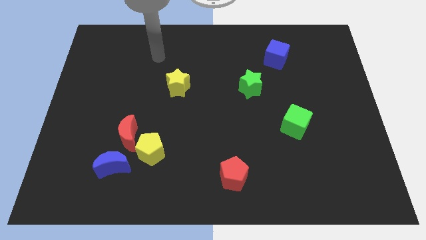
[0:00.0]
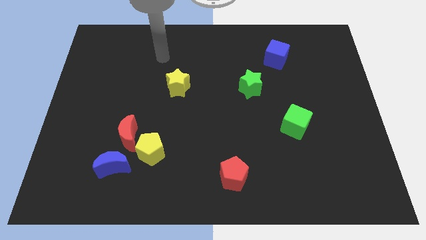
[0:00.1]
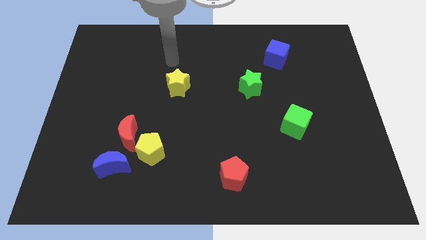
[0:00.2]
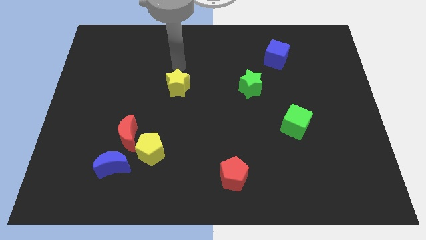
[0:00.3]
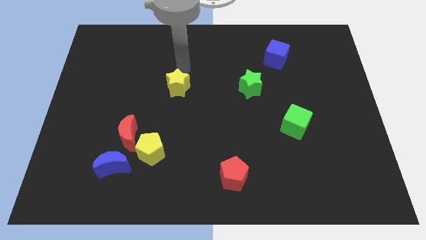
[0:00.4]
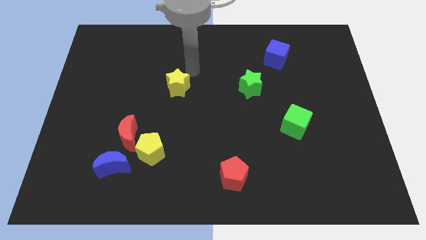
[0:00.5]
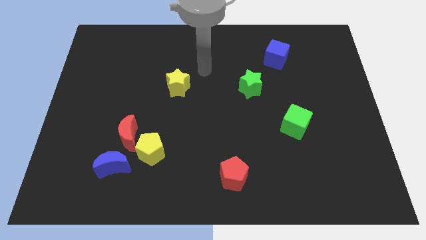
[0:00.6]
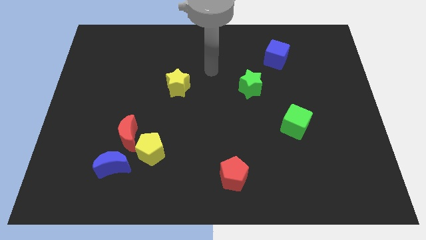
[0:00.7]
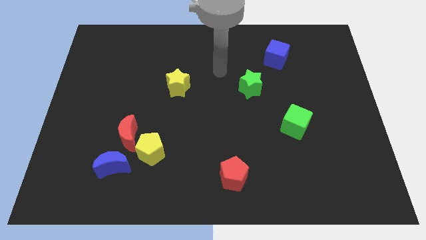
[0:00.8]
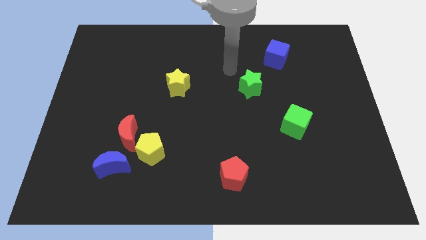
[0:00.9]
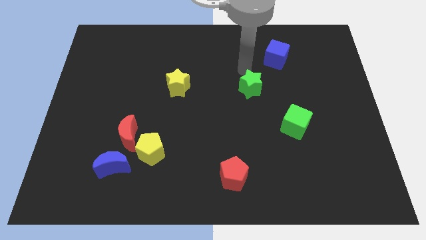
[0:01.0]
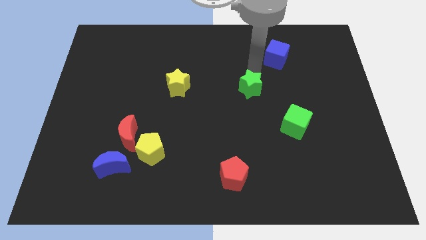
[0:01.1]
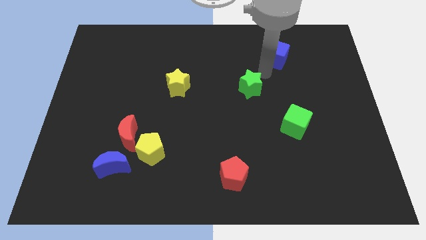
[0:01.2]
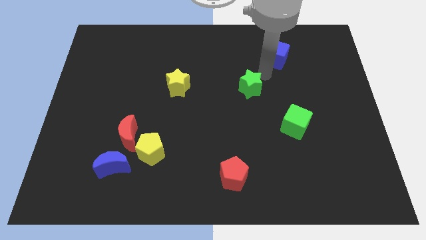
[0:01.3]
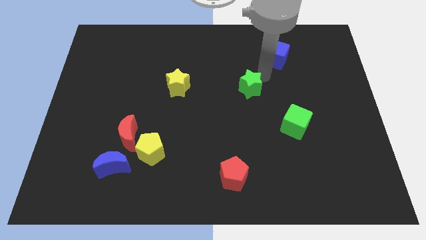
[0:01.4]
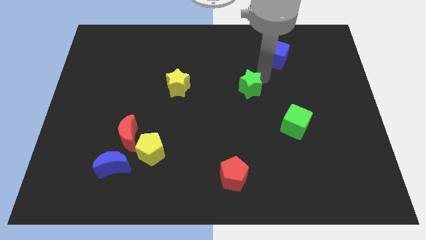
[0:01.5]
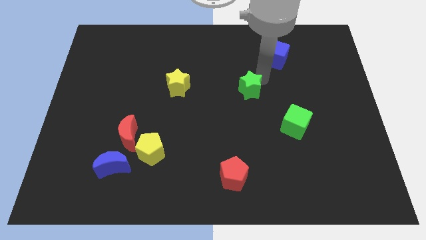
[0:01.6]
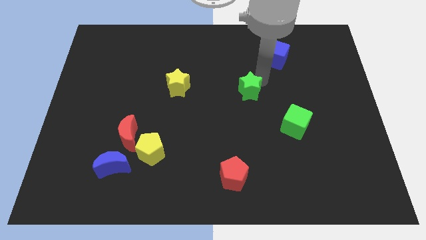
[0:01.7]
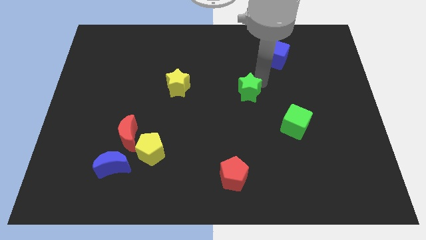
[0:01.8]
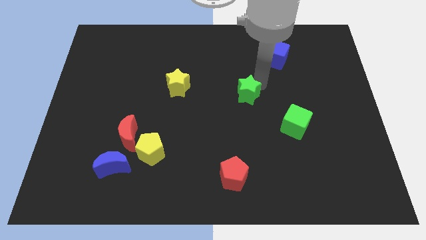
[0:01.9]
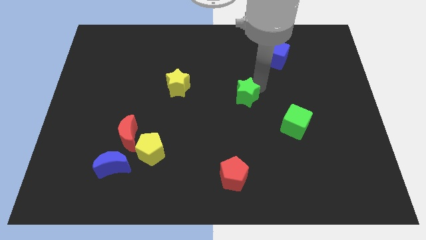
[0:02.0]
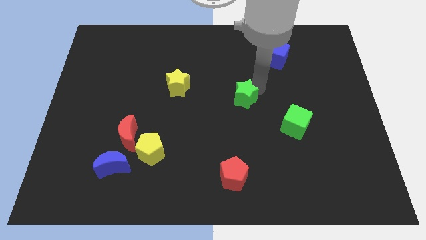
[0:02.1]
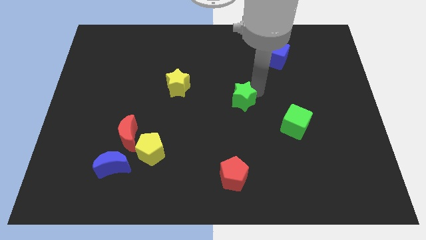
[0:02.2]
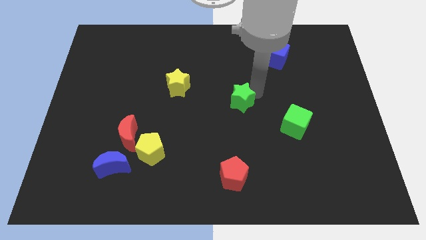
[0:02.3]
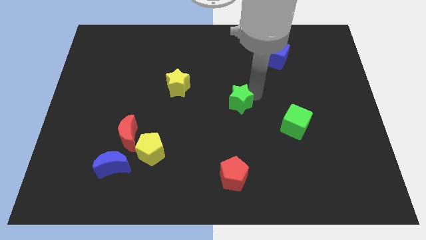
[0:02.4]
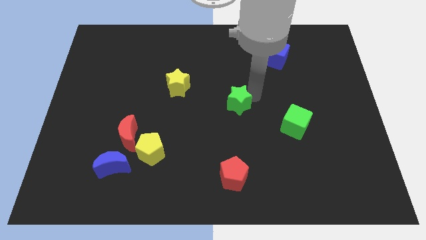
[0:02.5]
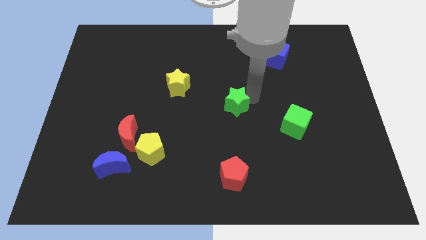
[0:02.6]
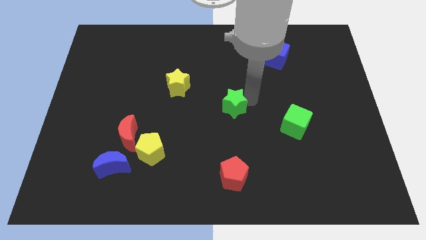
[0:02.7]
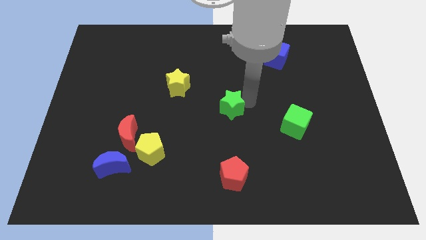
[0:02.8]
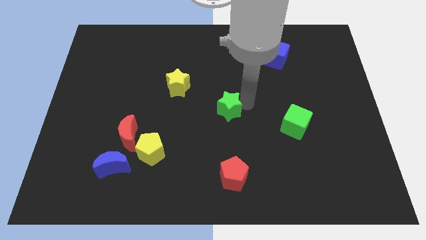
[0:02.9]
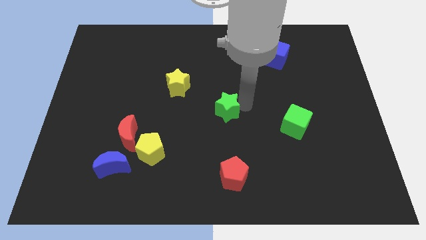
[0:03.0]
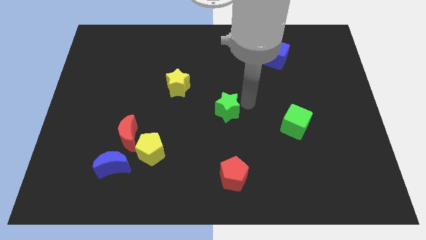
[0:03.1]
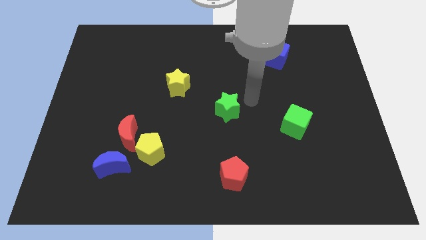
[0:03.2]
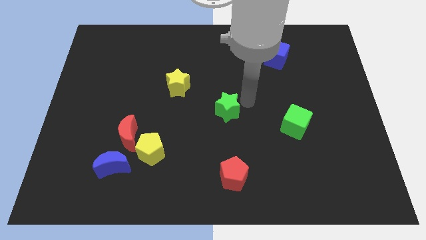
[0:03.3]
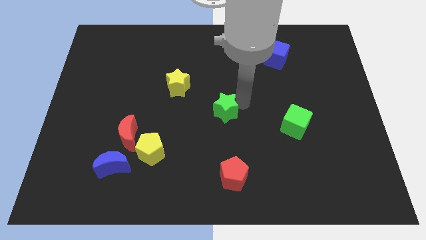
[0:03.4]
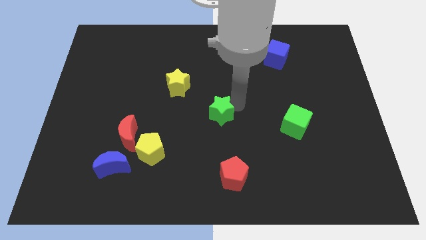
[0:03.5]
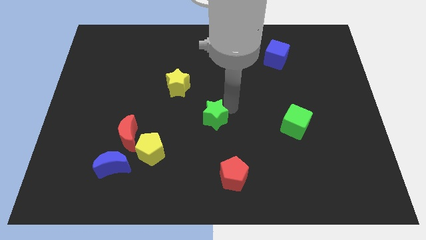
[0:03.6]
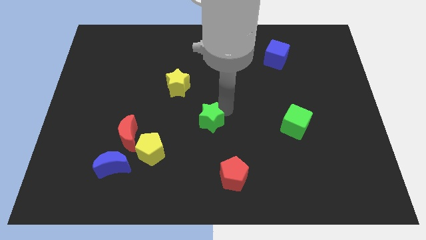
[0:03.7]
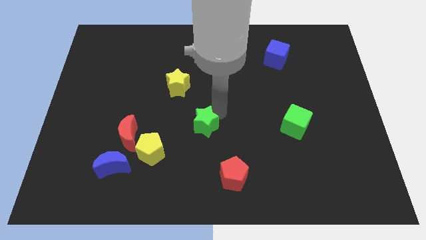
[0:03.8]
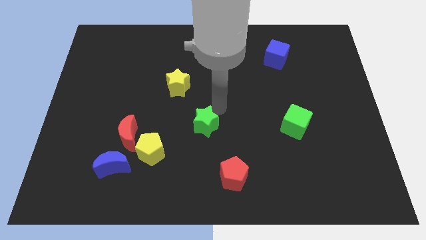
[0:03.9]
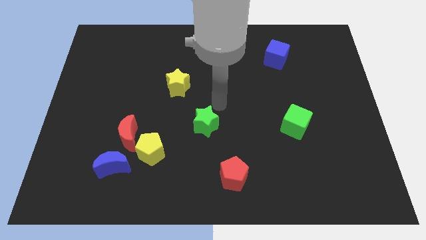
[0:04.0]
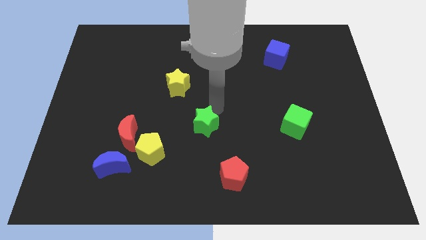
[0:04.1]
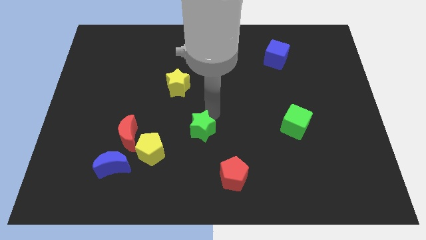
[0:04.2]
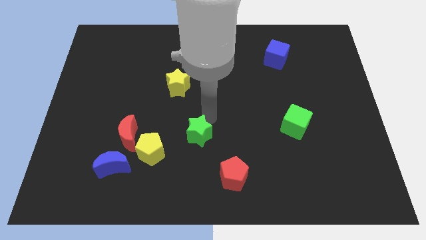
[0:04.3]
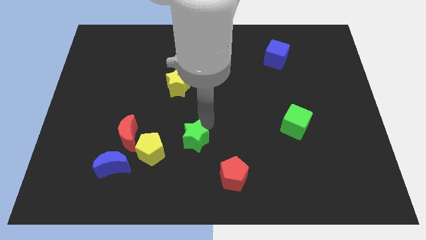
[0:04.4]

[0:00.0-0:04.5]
slide the green star down and left diagonally

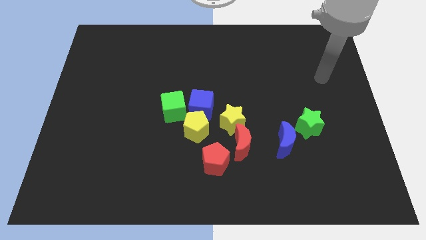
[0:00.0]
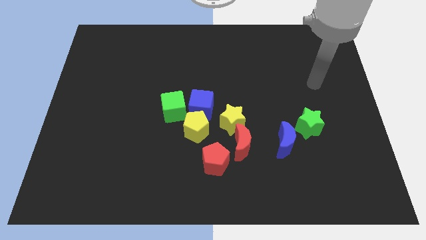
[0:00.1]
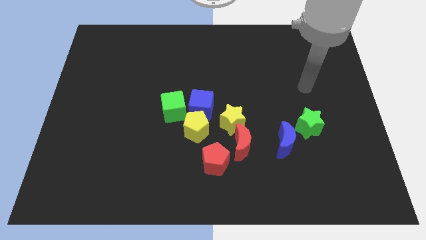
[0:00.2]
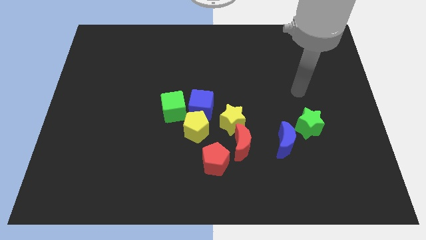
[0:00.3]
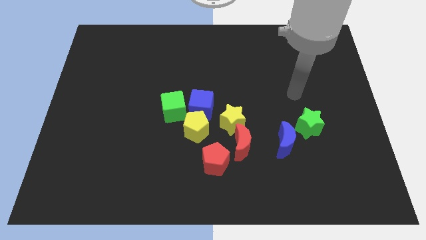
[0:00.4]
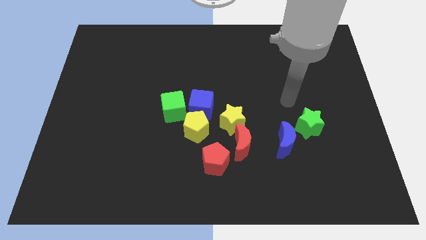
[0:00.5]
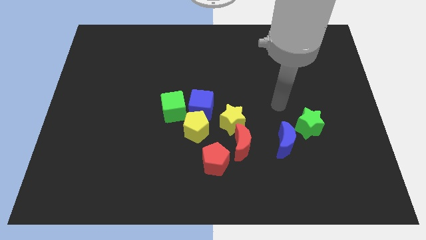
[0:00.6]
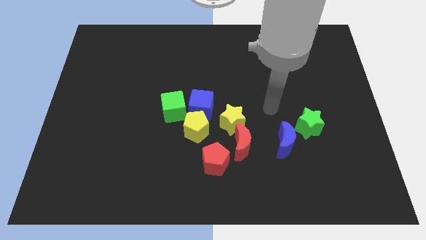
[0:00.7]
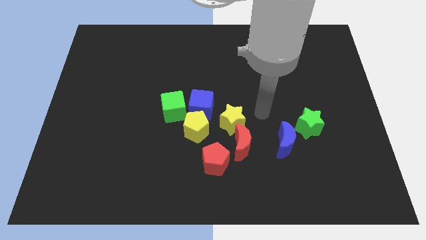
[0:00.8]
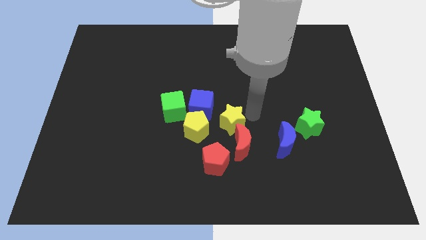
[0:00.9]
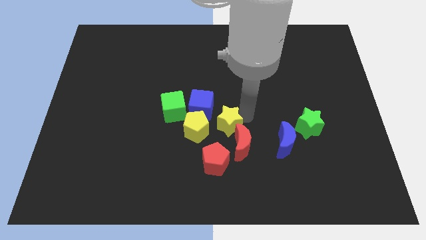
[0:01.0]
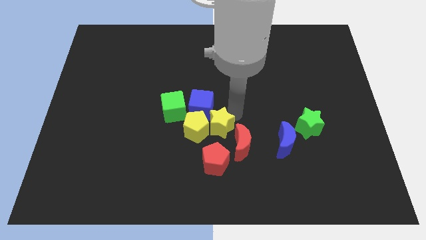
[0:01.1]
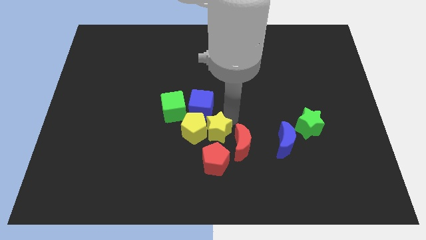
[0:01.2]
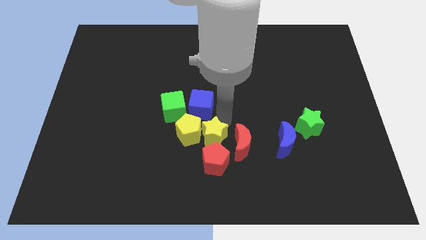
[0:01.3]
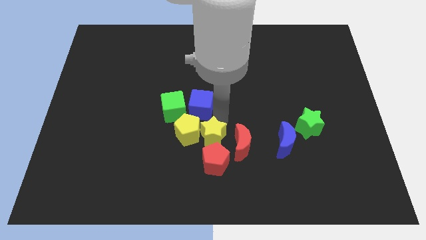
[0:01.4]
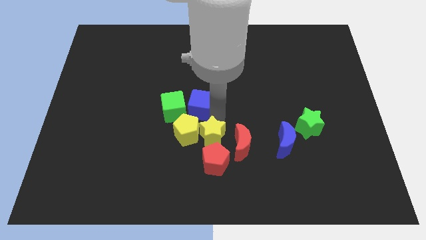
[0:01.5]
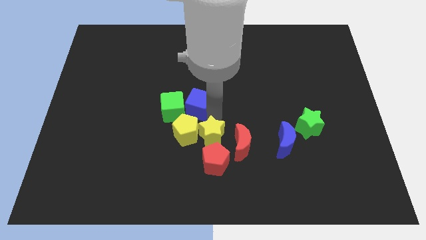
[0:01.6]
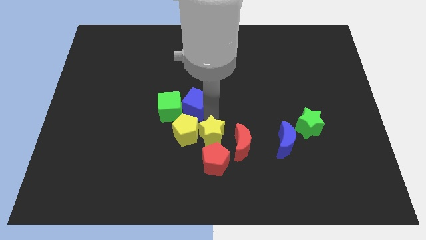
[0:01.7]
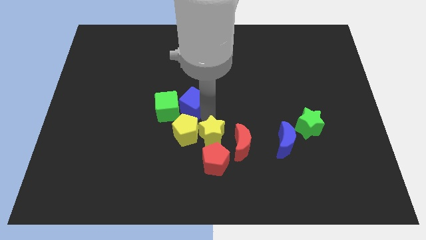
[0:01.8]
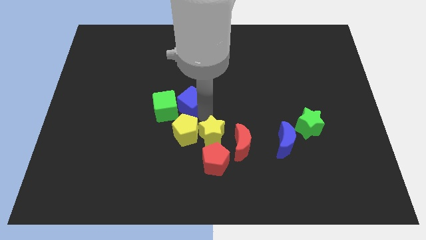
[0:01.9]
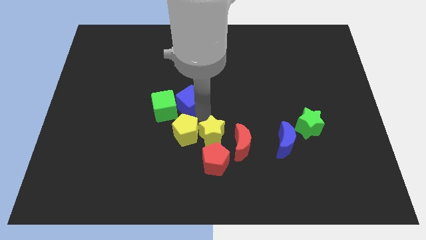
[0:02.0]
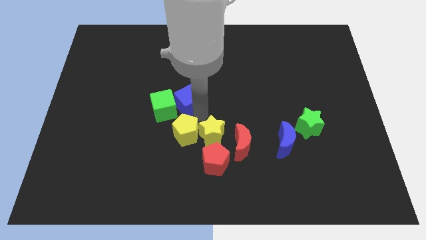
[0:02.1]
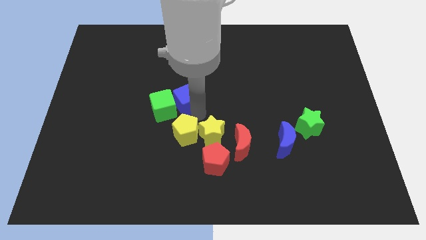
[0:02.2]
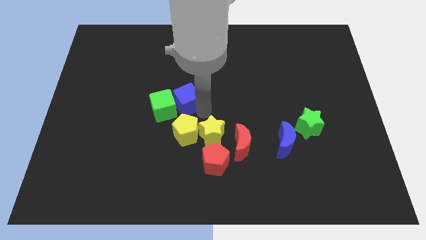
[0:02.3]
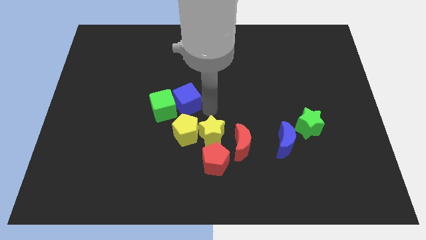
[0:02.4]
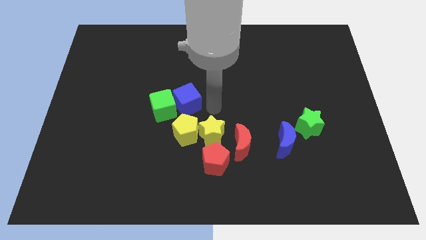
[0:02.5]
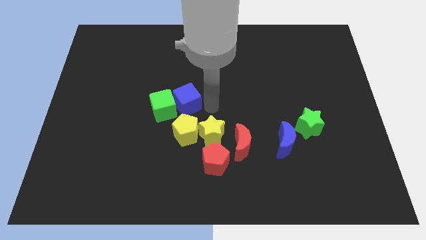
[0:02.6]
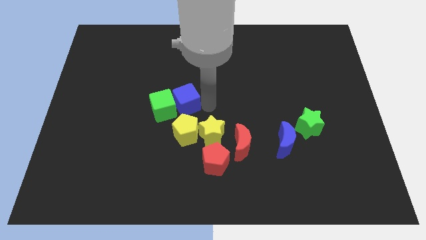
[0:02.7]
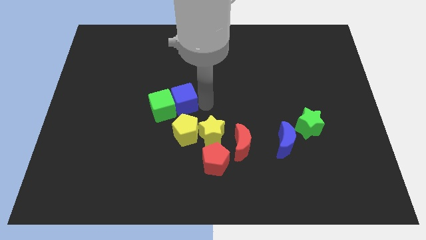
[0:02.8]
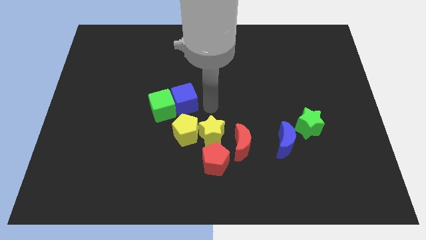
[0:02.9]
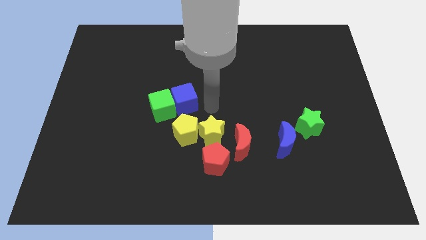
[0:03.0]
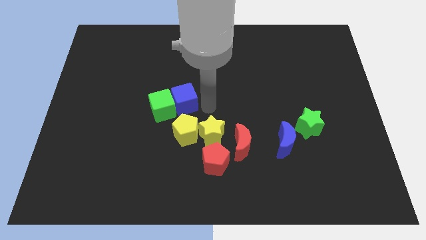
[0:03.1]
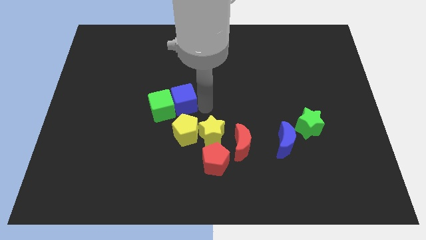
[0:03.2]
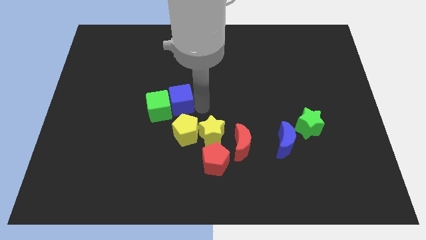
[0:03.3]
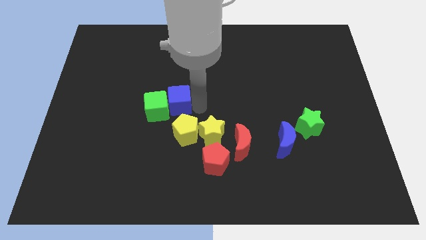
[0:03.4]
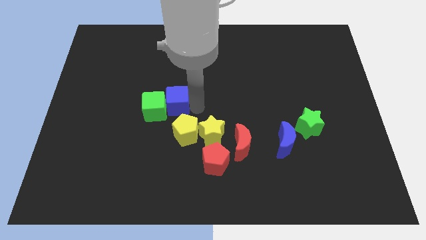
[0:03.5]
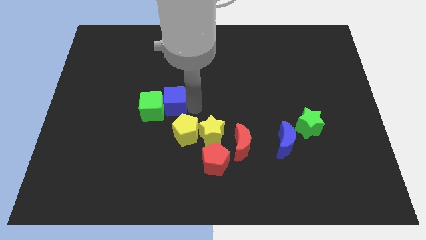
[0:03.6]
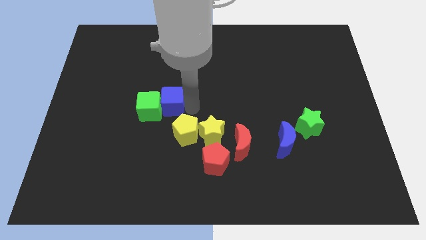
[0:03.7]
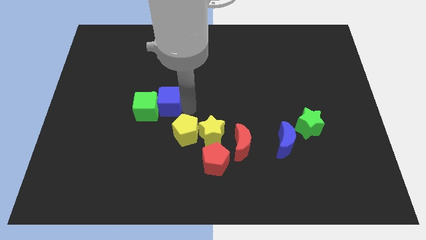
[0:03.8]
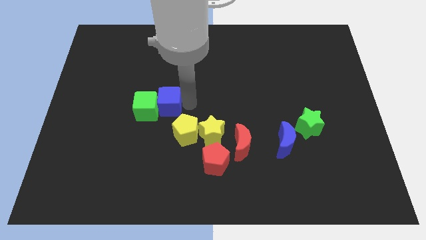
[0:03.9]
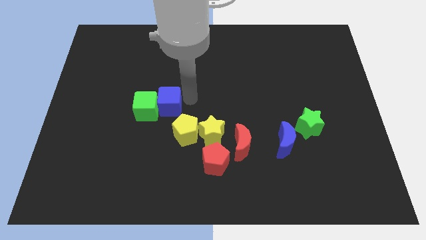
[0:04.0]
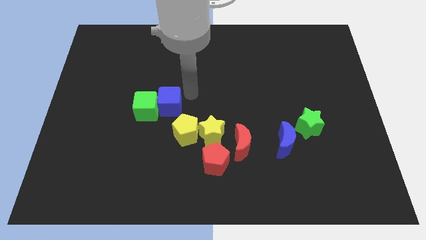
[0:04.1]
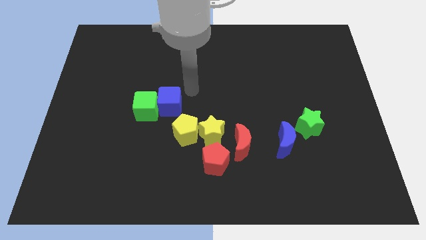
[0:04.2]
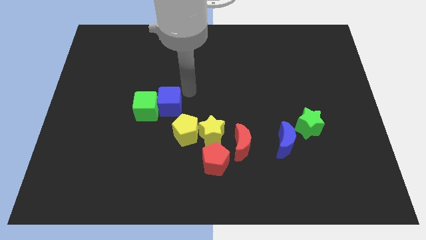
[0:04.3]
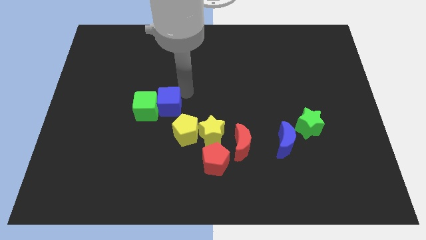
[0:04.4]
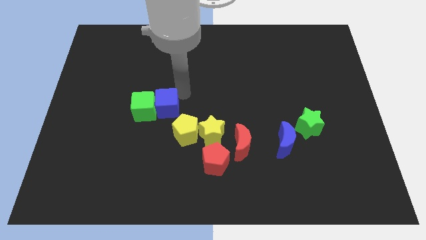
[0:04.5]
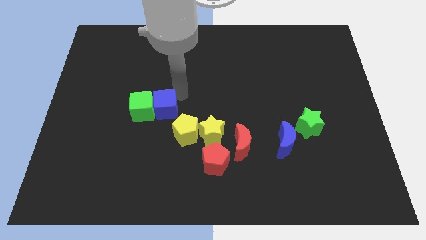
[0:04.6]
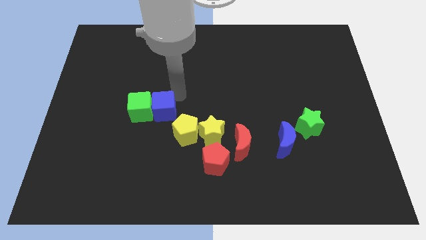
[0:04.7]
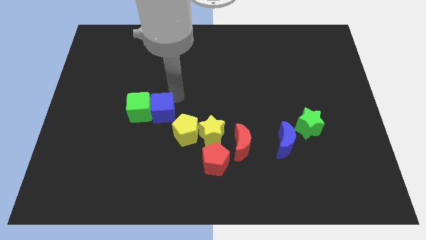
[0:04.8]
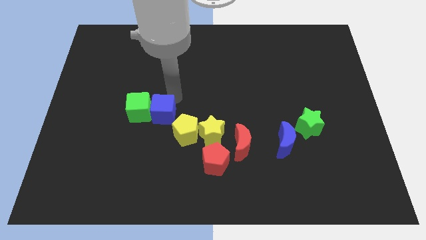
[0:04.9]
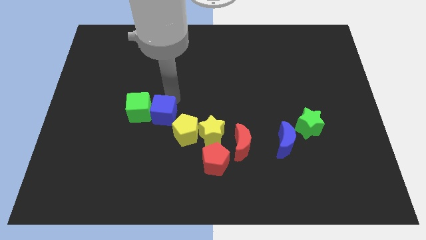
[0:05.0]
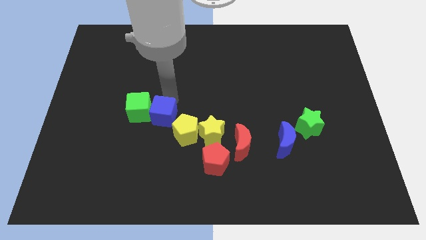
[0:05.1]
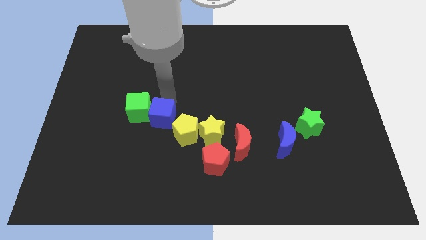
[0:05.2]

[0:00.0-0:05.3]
slide the blue cube downwards and to the left a little
